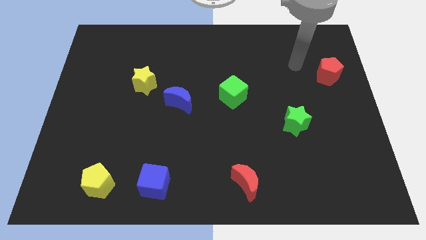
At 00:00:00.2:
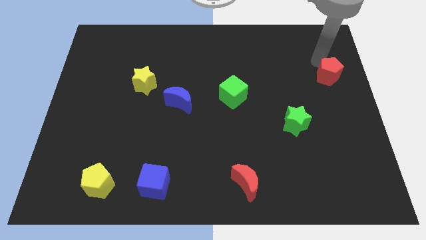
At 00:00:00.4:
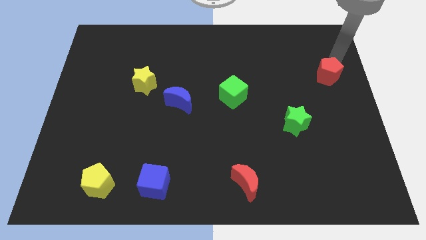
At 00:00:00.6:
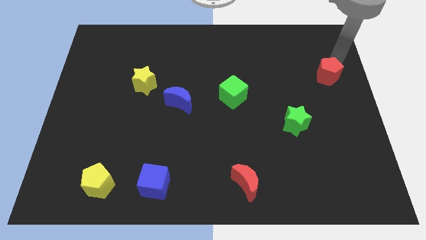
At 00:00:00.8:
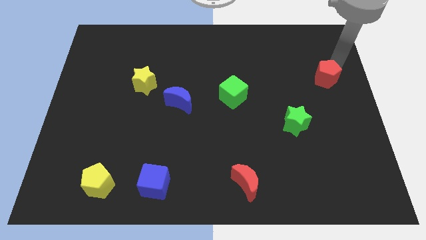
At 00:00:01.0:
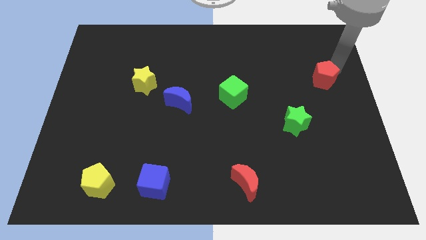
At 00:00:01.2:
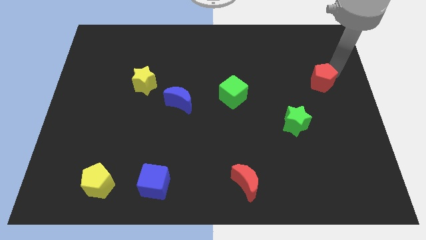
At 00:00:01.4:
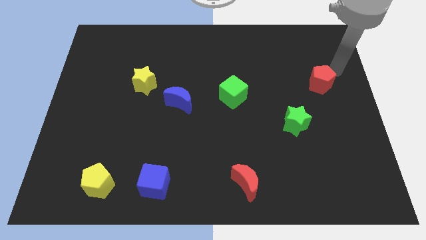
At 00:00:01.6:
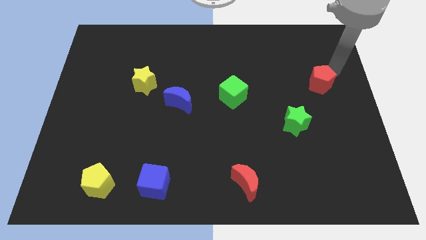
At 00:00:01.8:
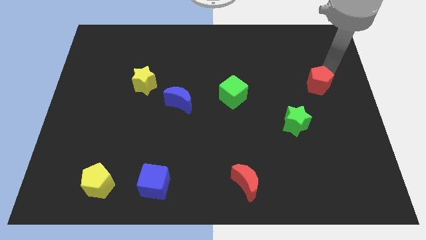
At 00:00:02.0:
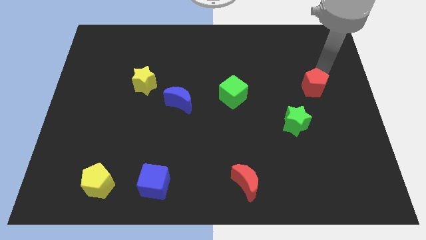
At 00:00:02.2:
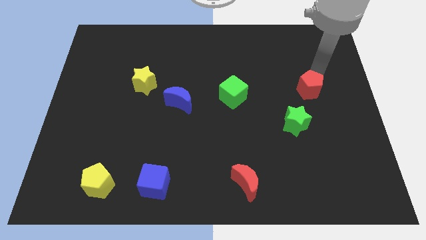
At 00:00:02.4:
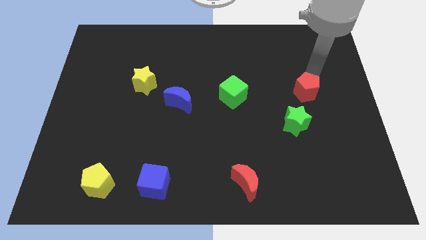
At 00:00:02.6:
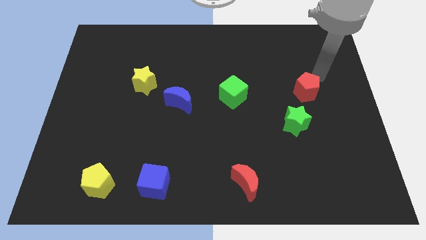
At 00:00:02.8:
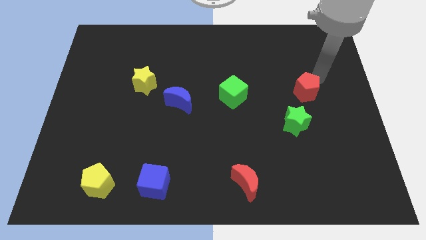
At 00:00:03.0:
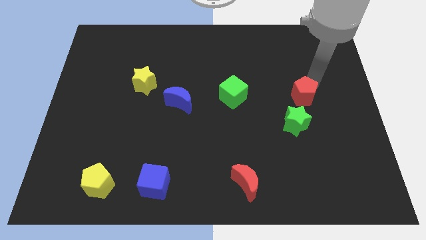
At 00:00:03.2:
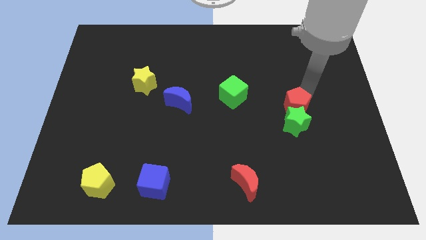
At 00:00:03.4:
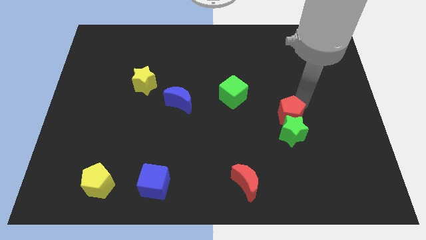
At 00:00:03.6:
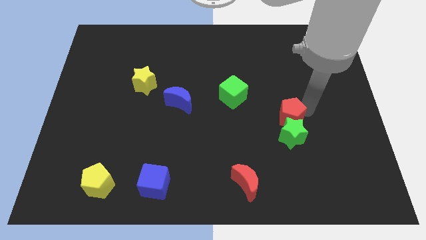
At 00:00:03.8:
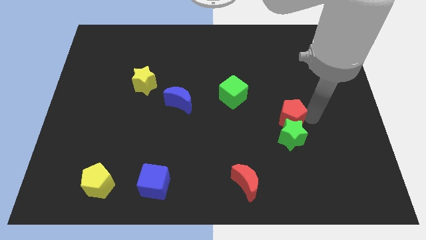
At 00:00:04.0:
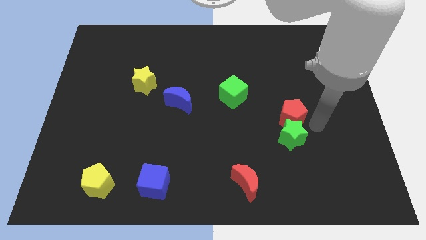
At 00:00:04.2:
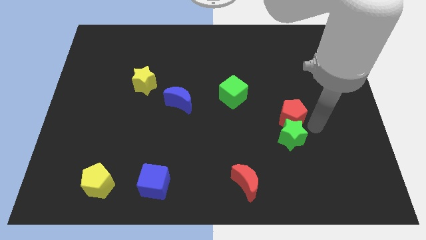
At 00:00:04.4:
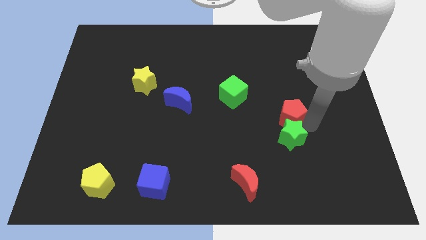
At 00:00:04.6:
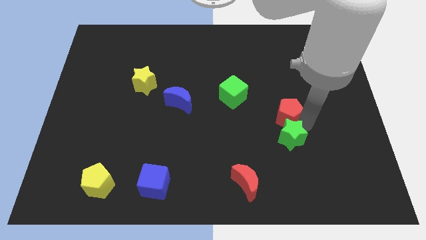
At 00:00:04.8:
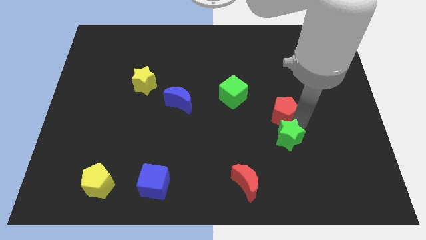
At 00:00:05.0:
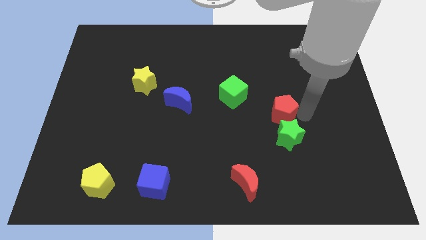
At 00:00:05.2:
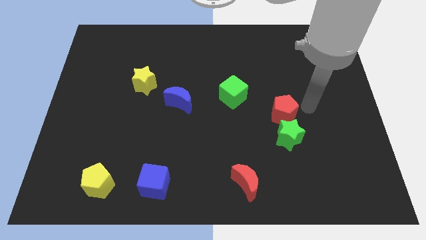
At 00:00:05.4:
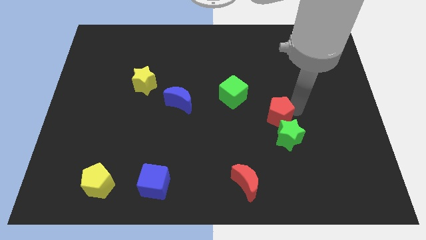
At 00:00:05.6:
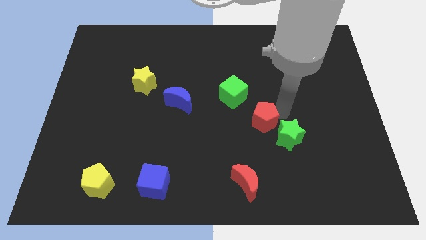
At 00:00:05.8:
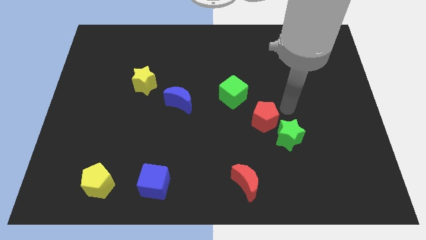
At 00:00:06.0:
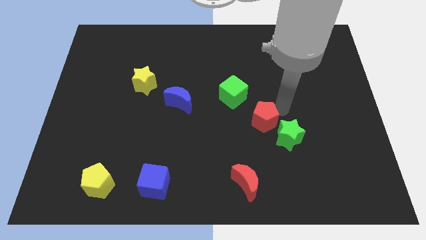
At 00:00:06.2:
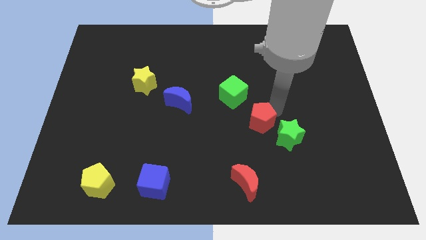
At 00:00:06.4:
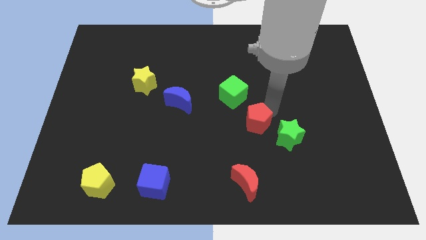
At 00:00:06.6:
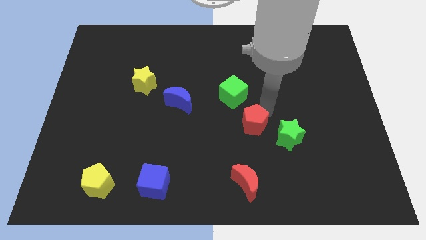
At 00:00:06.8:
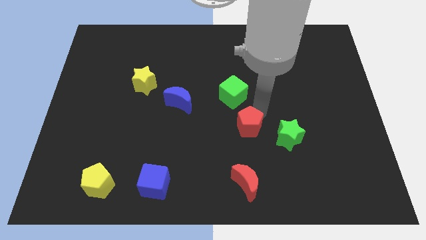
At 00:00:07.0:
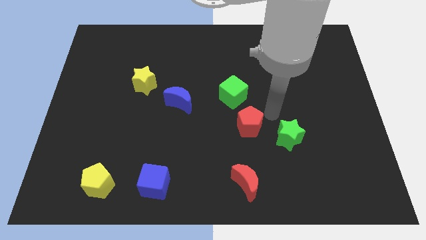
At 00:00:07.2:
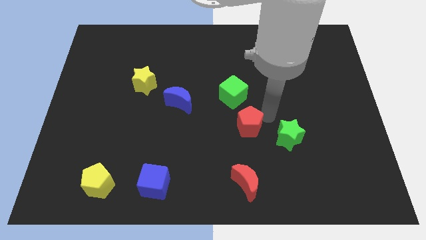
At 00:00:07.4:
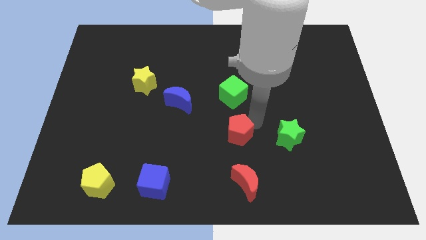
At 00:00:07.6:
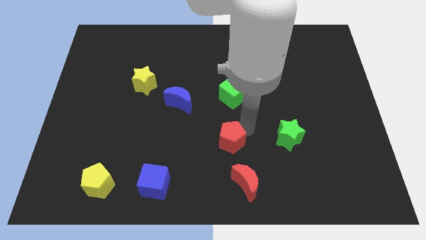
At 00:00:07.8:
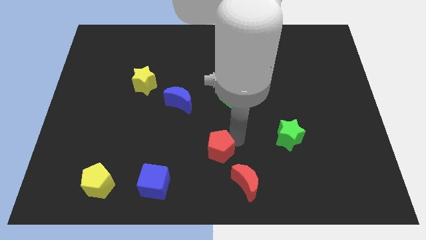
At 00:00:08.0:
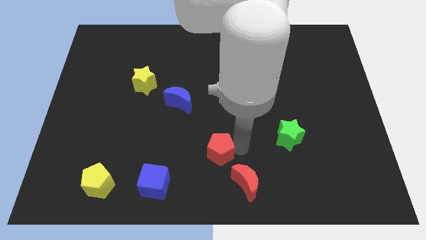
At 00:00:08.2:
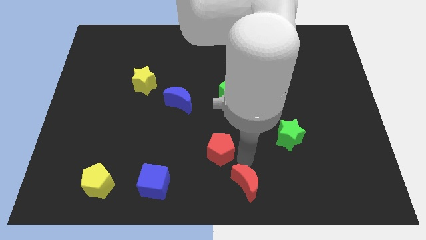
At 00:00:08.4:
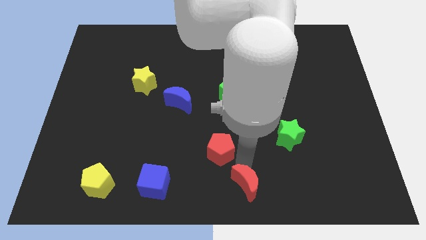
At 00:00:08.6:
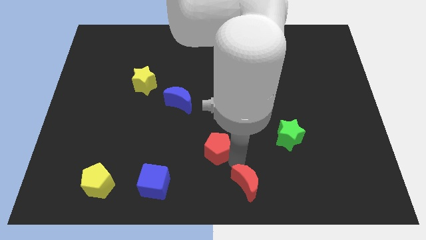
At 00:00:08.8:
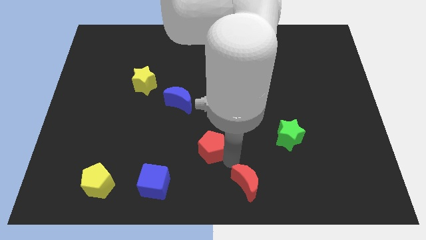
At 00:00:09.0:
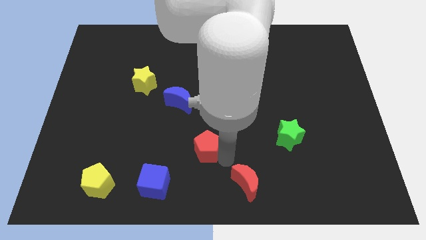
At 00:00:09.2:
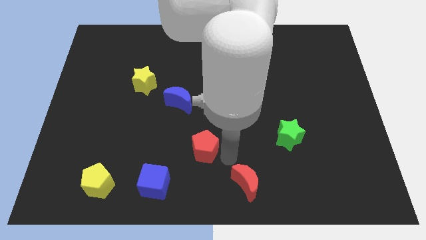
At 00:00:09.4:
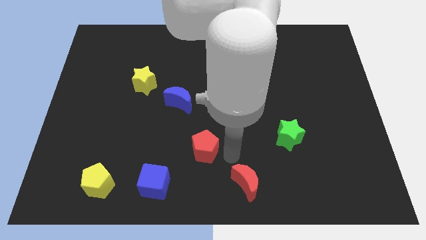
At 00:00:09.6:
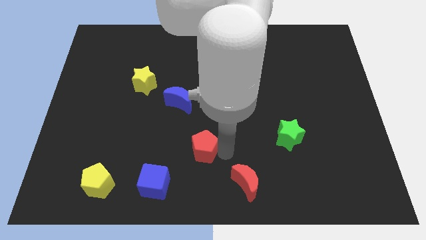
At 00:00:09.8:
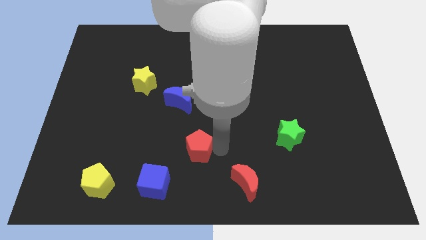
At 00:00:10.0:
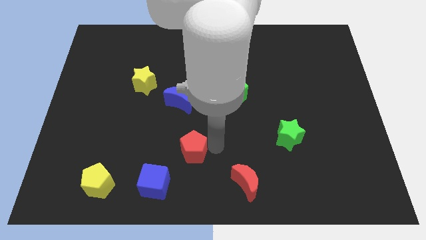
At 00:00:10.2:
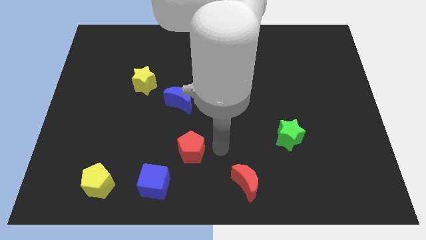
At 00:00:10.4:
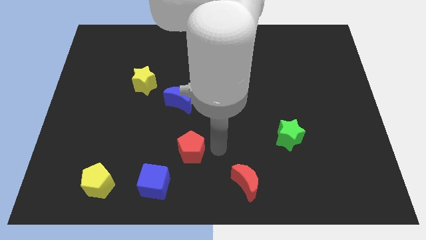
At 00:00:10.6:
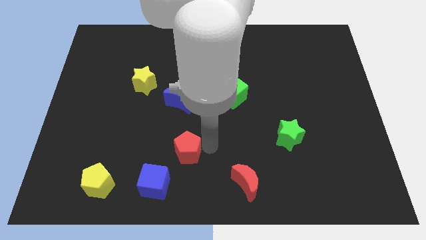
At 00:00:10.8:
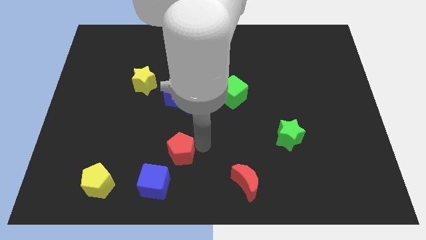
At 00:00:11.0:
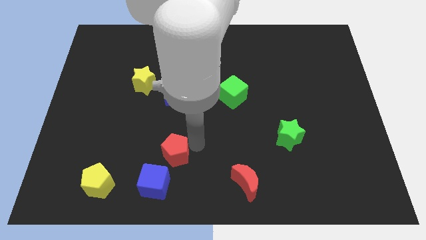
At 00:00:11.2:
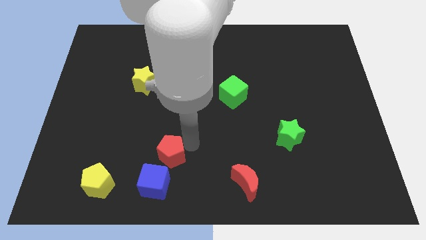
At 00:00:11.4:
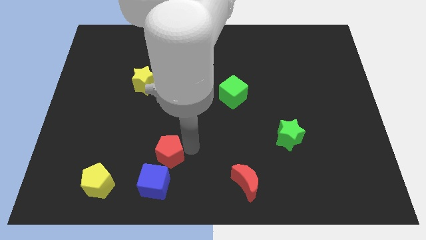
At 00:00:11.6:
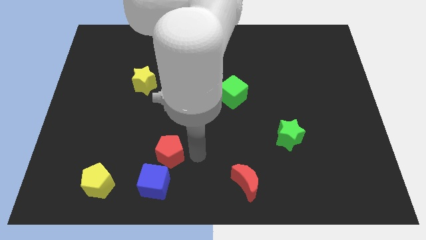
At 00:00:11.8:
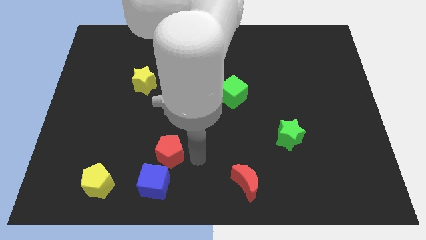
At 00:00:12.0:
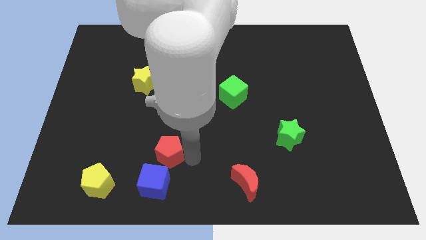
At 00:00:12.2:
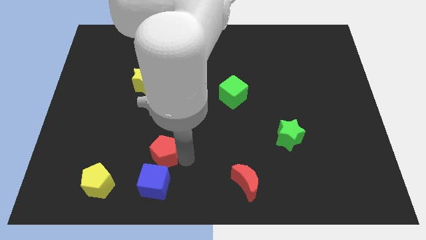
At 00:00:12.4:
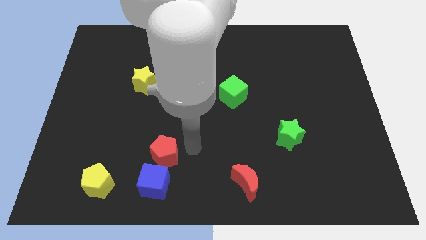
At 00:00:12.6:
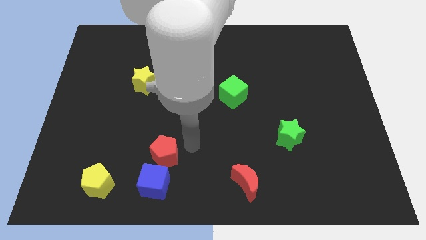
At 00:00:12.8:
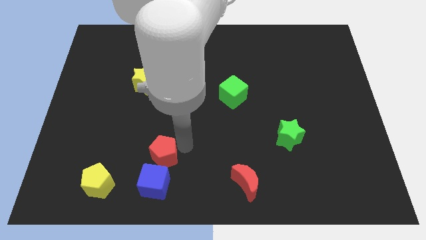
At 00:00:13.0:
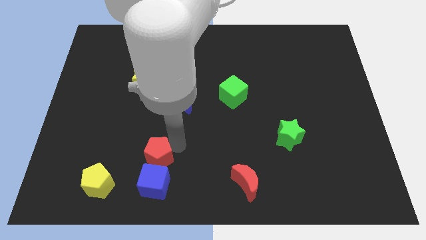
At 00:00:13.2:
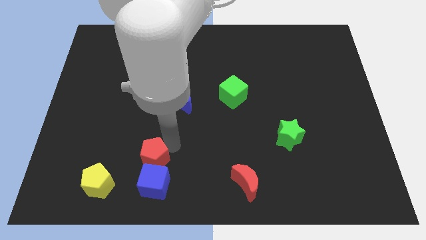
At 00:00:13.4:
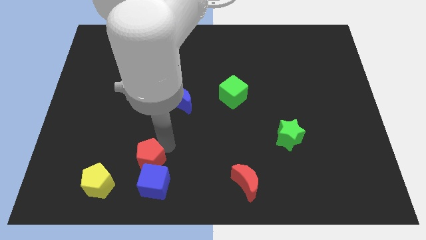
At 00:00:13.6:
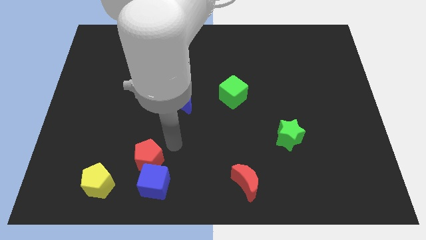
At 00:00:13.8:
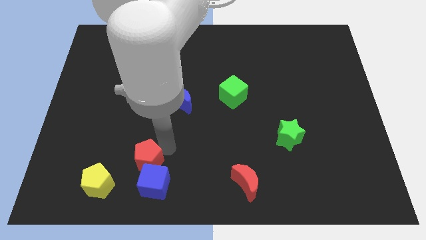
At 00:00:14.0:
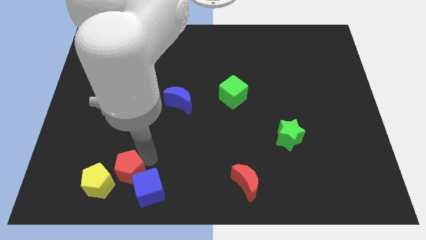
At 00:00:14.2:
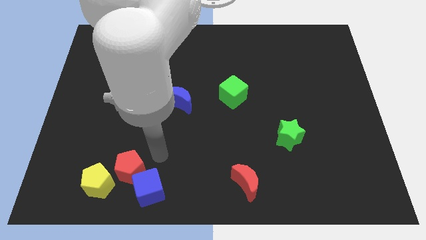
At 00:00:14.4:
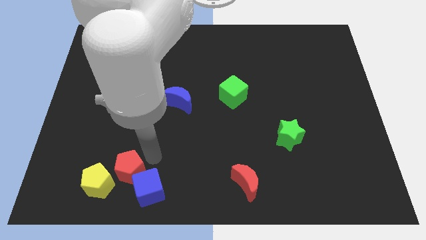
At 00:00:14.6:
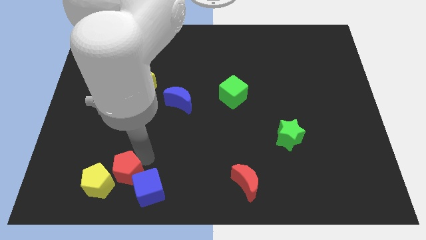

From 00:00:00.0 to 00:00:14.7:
put the red pentagon close to the yellow pentagon
